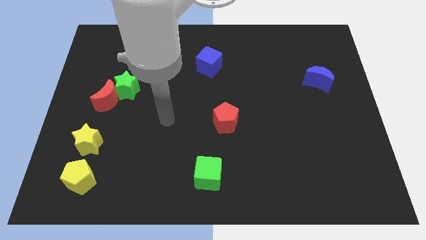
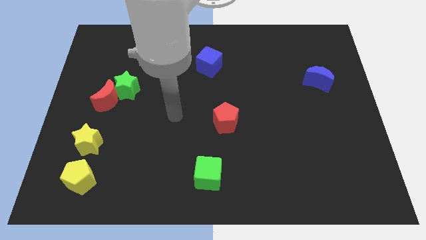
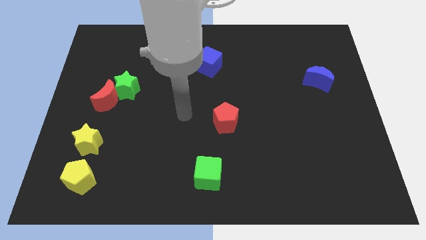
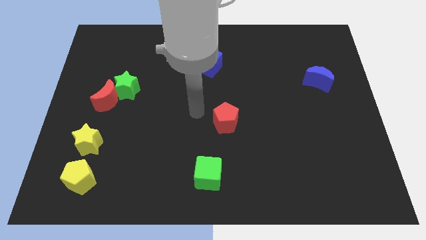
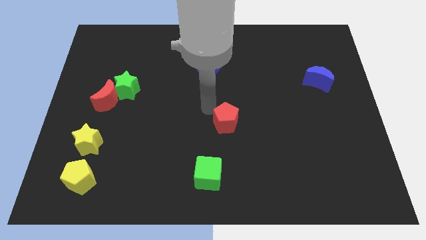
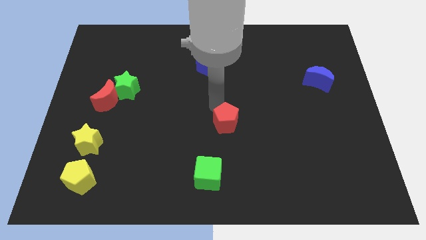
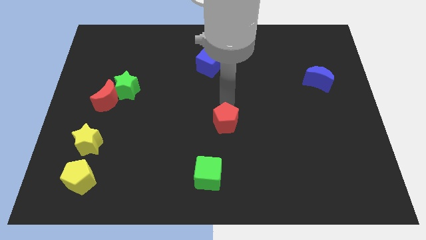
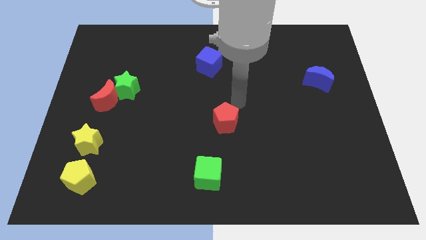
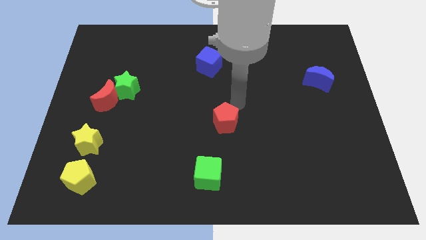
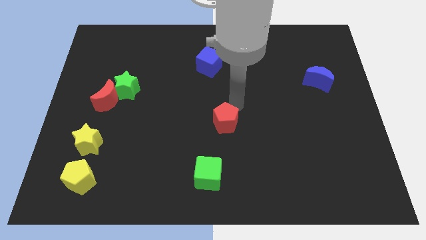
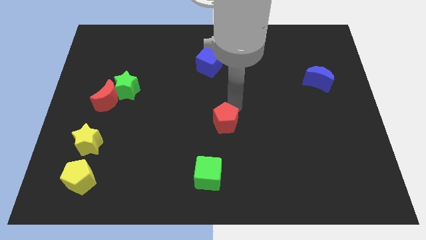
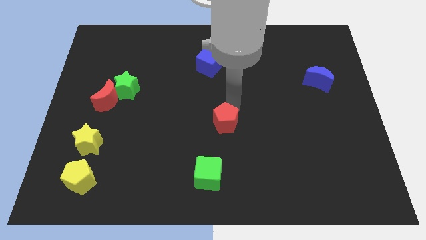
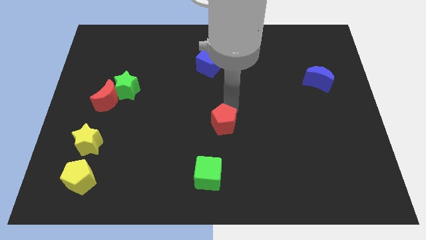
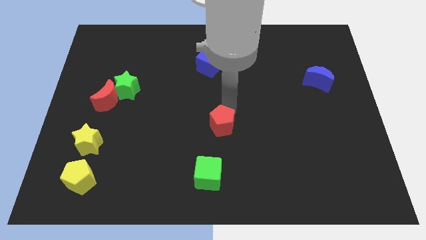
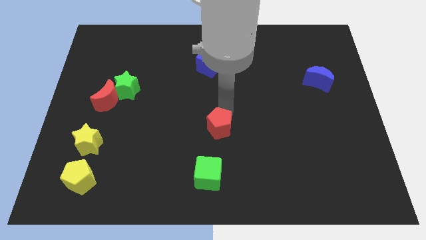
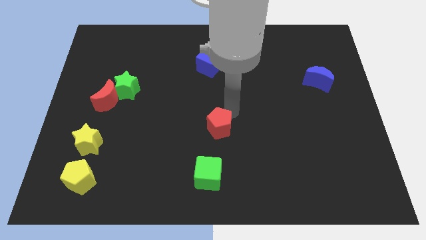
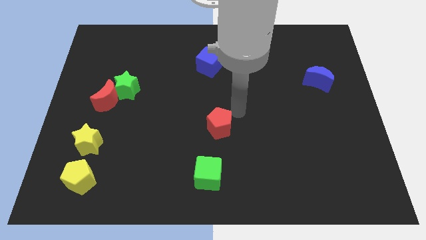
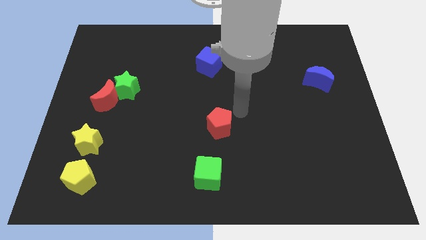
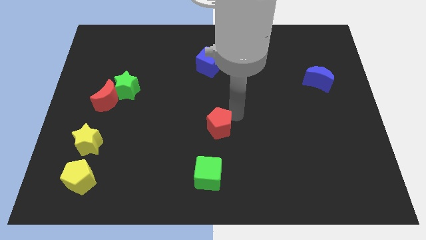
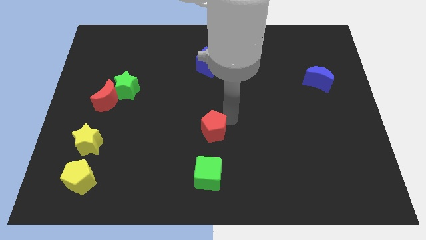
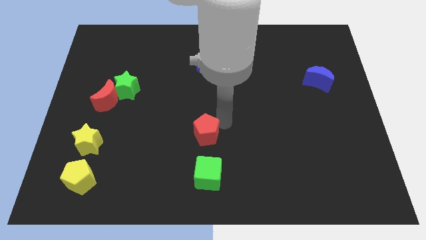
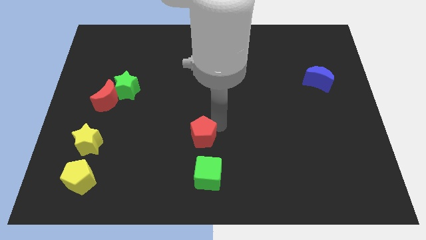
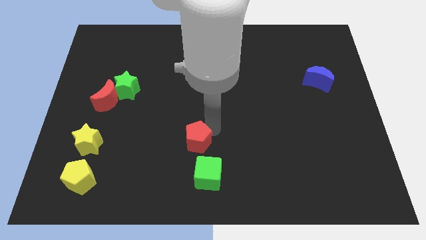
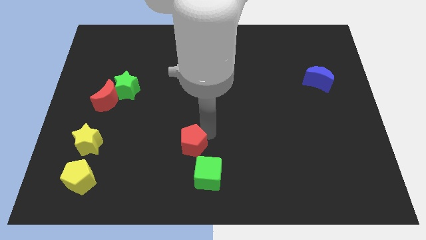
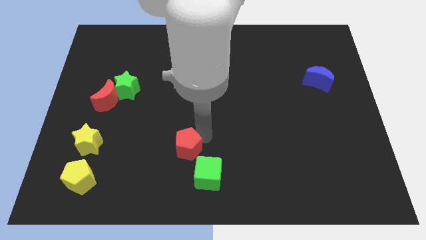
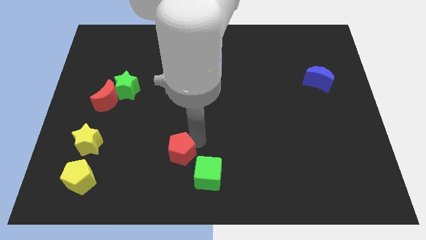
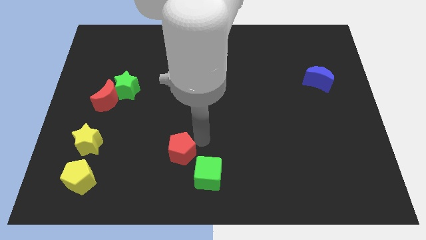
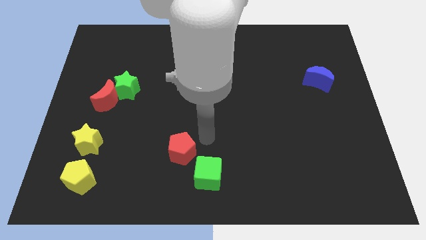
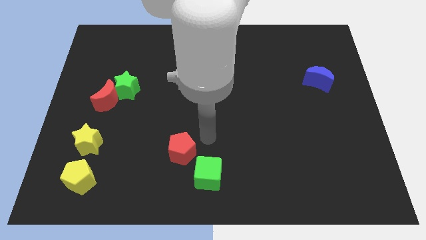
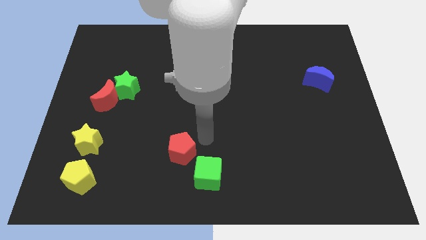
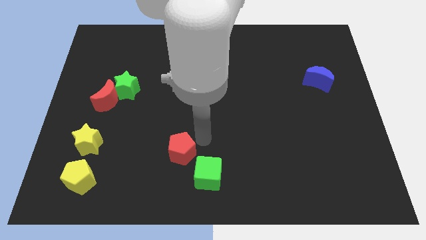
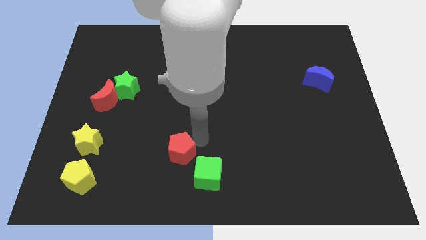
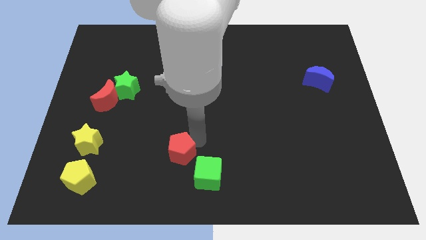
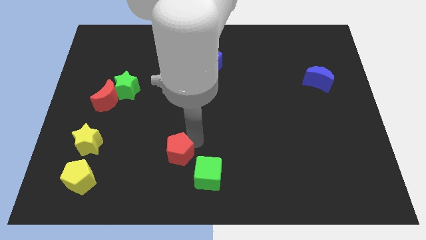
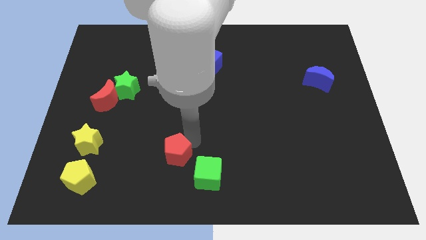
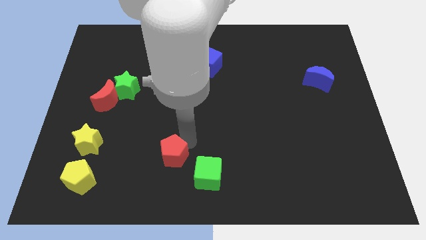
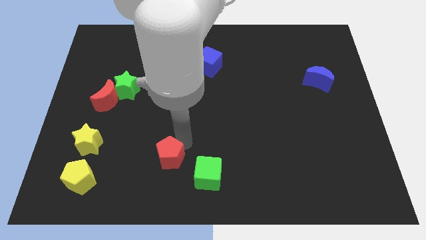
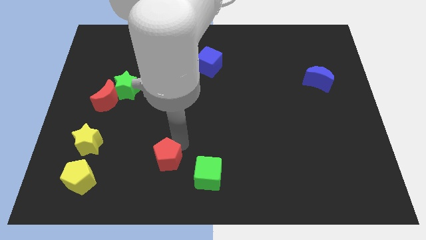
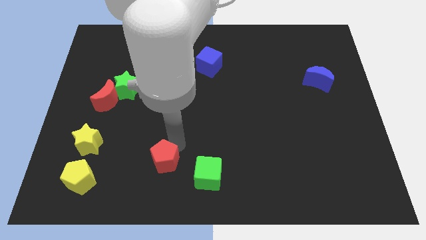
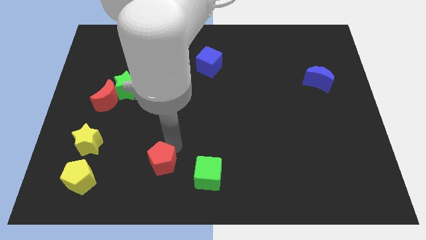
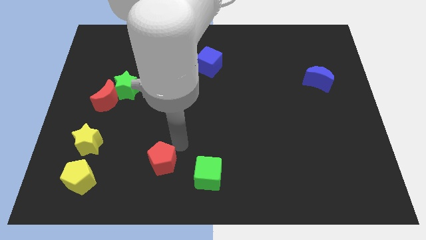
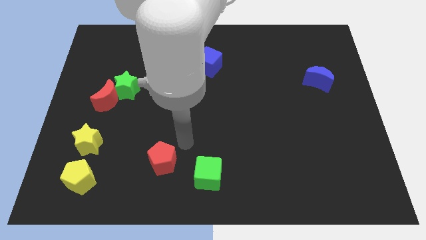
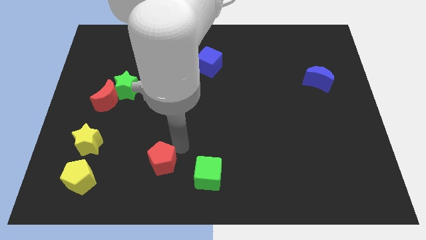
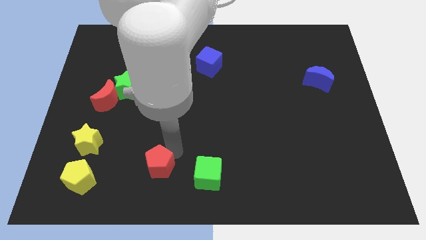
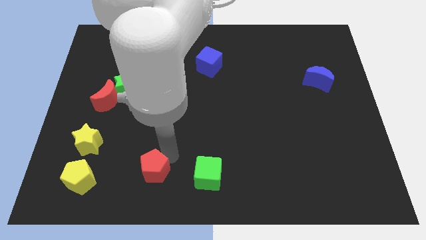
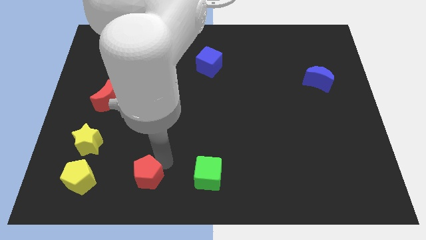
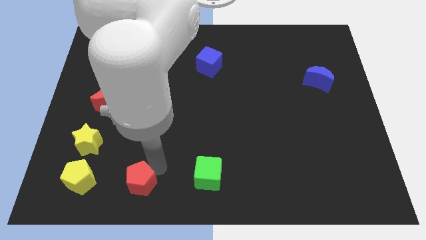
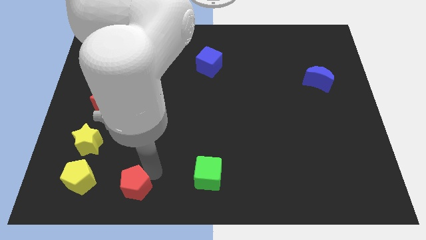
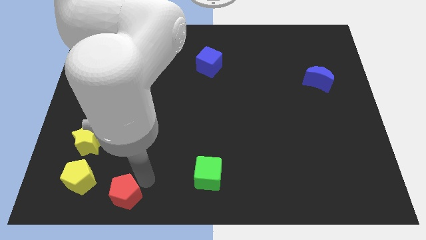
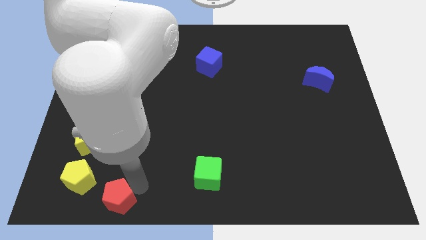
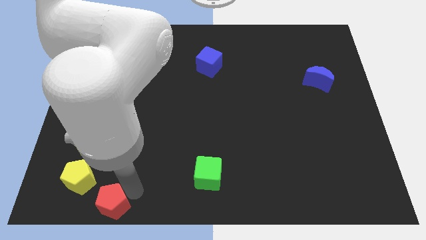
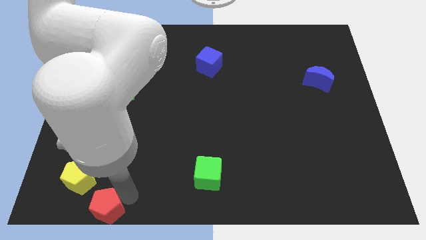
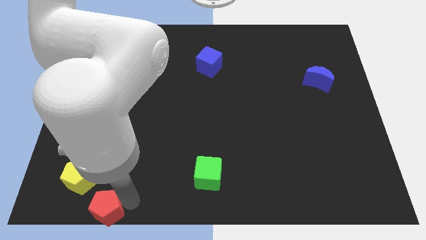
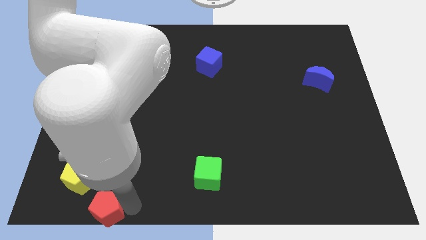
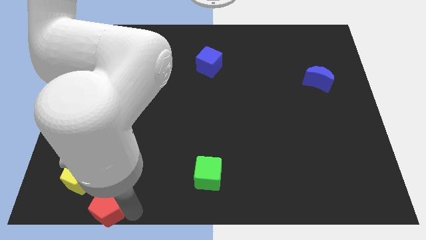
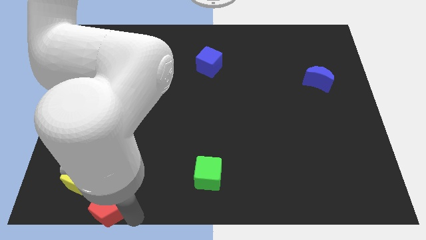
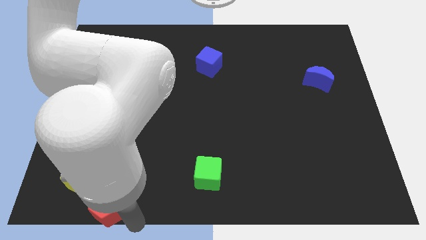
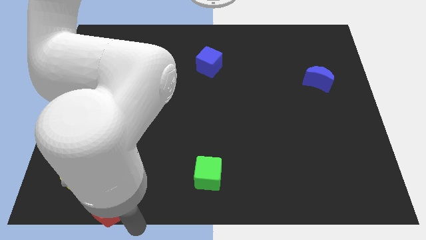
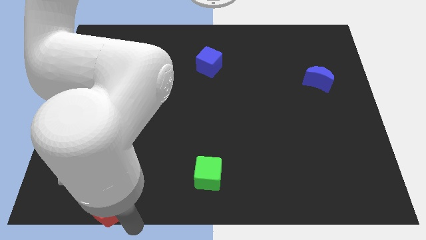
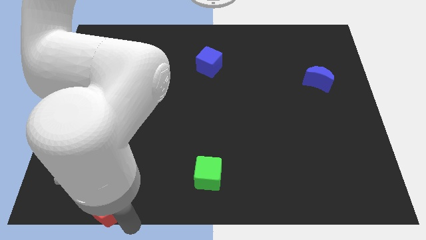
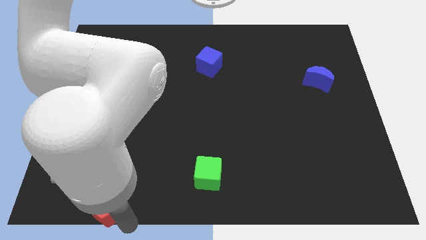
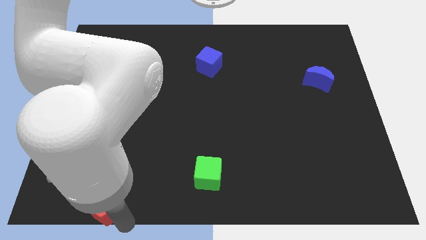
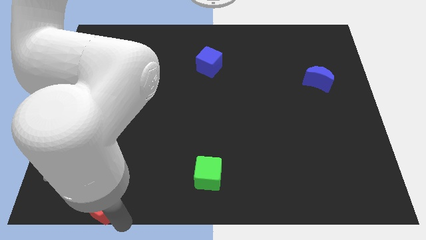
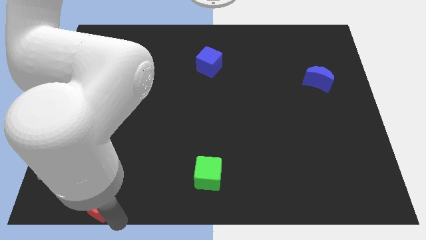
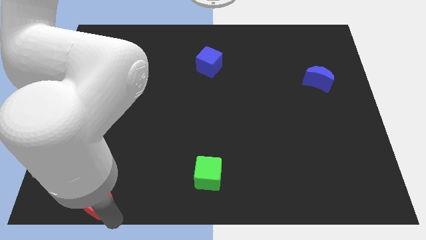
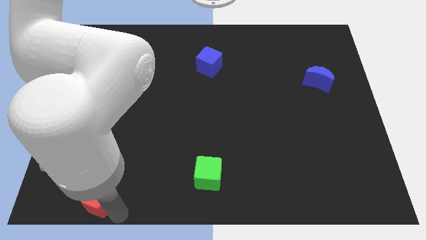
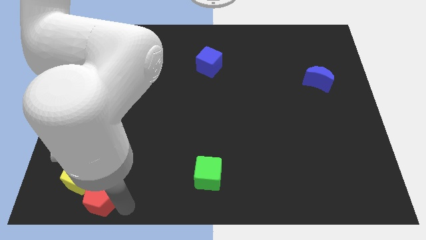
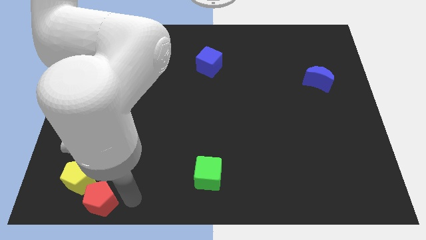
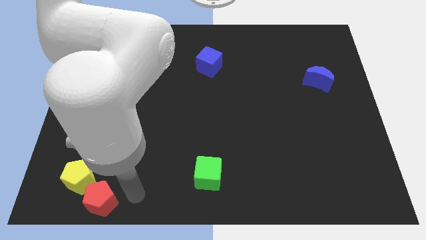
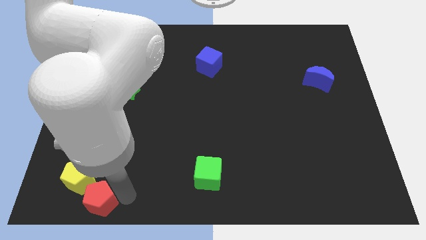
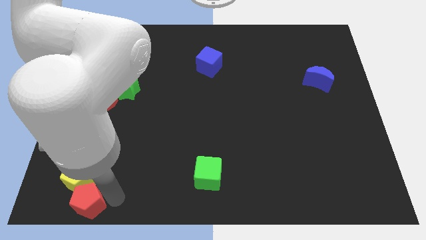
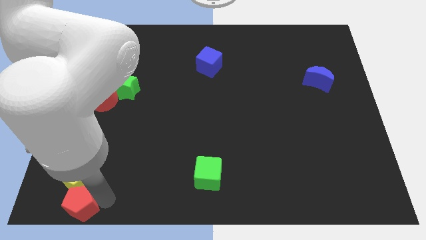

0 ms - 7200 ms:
put the red pentagon to the bottom left

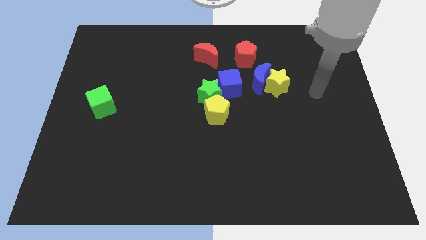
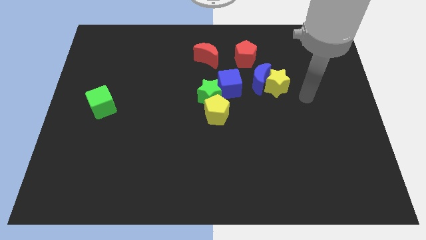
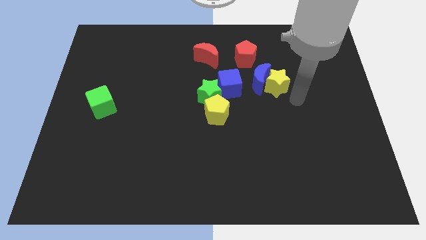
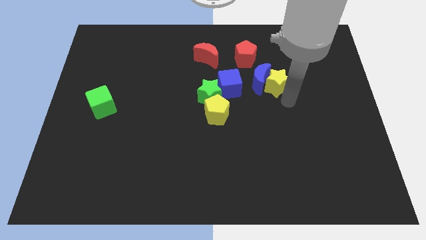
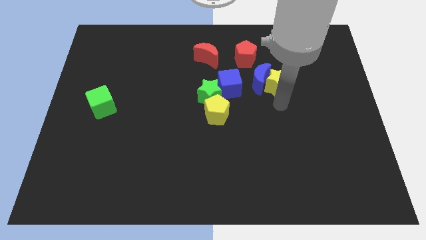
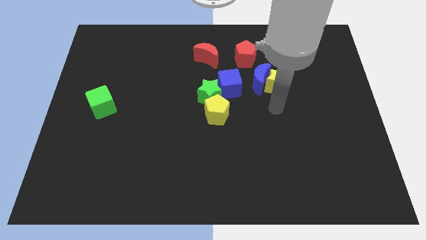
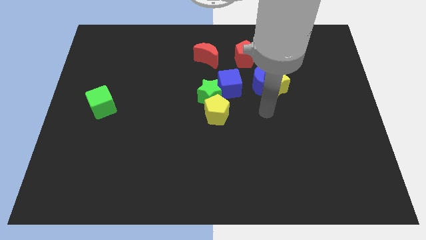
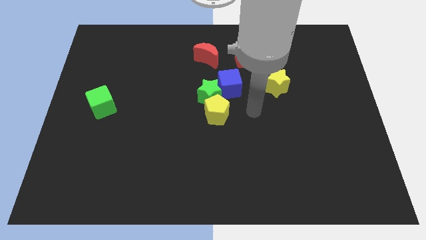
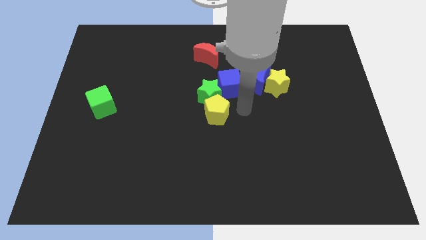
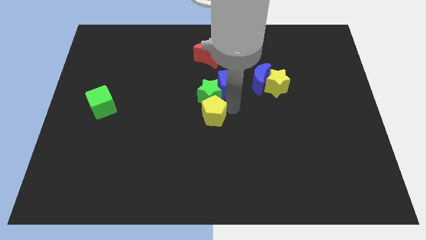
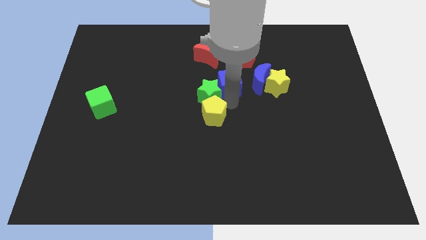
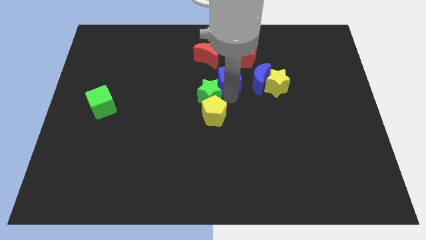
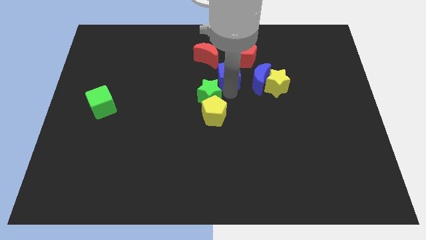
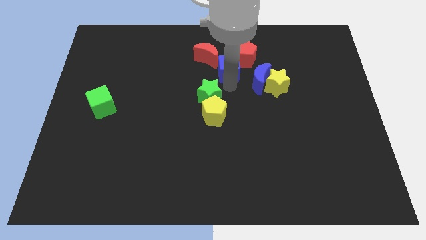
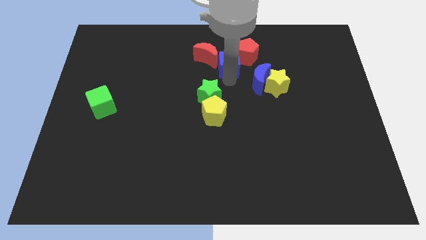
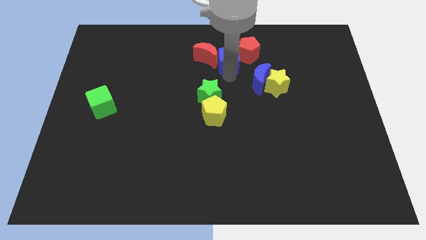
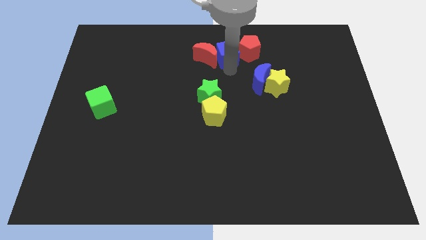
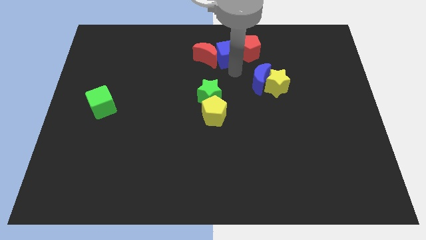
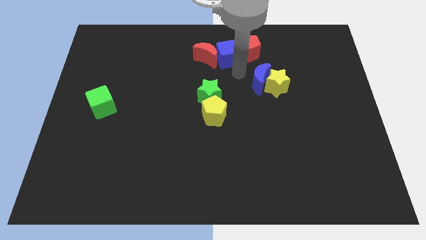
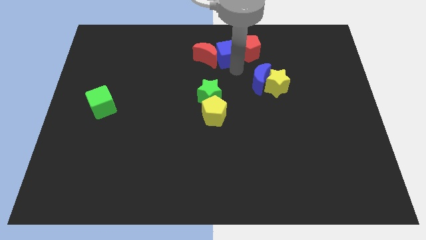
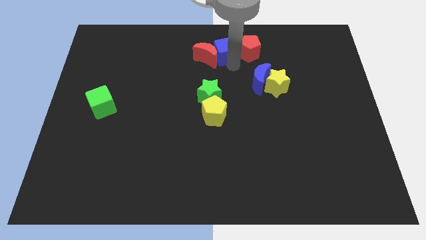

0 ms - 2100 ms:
push the blue cube to the top side
